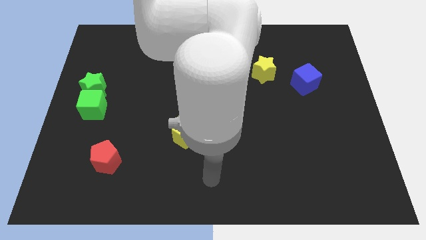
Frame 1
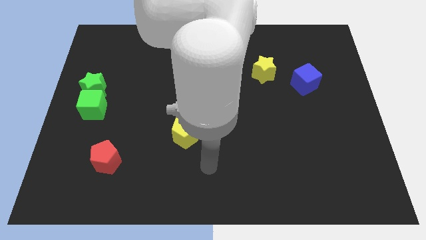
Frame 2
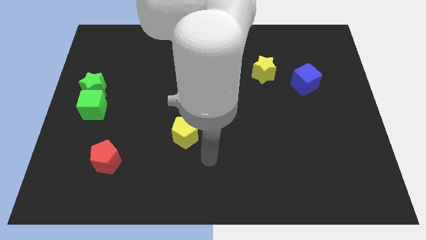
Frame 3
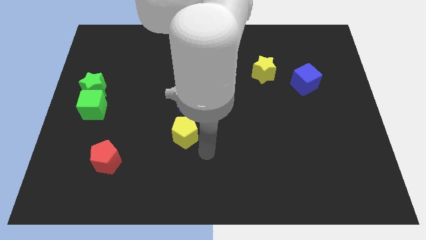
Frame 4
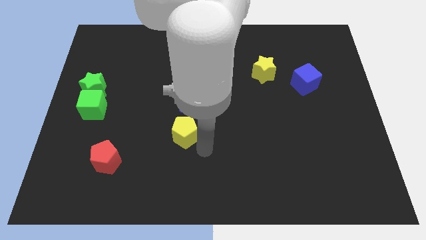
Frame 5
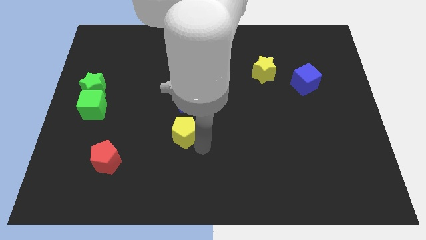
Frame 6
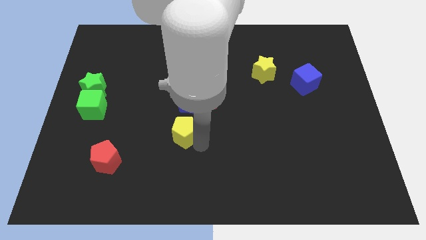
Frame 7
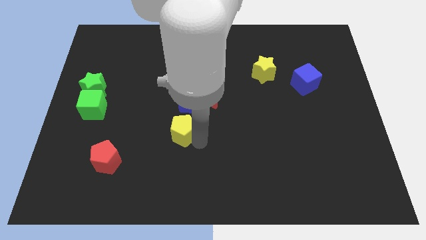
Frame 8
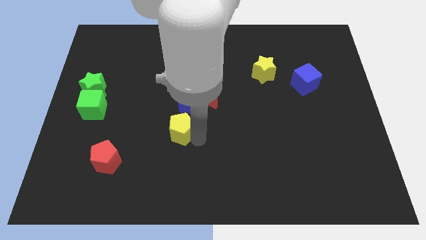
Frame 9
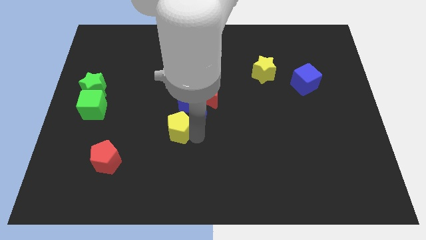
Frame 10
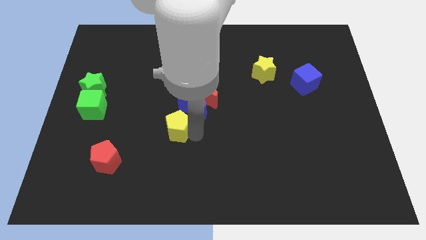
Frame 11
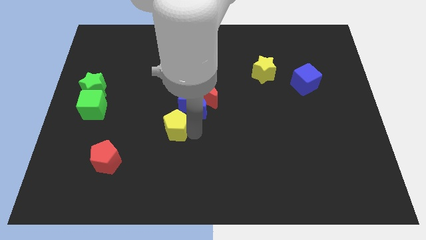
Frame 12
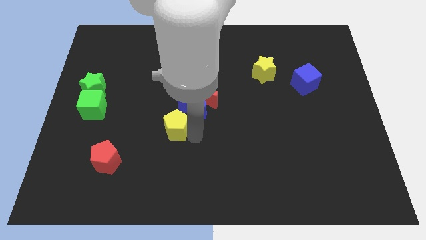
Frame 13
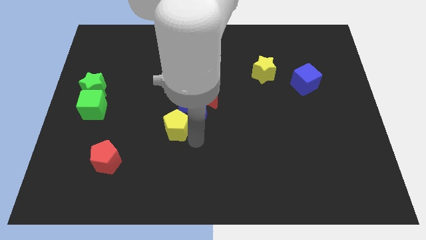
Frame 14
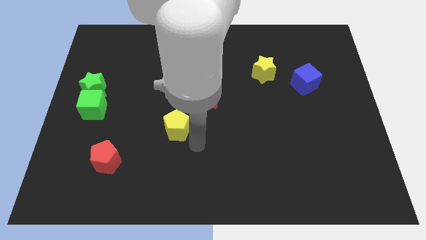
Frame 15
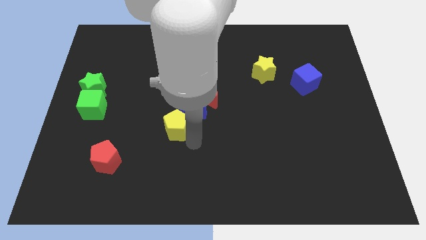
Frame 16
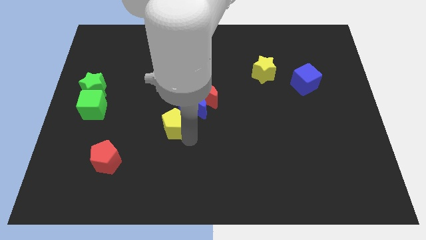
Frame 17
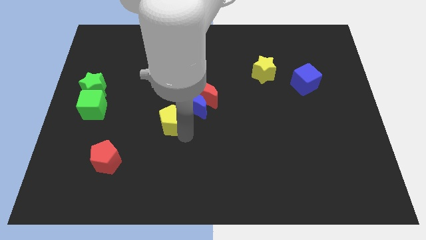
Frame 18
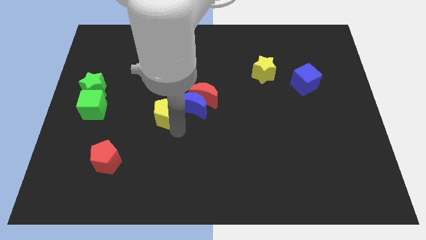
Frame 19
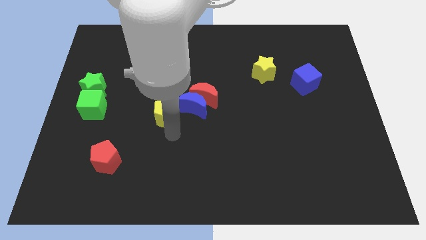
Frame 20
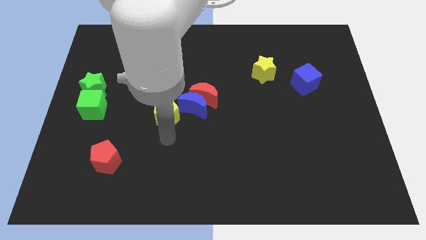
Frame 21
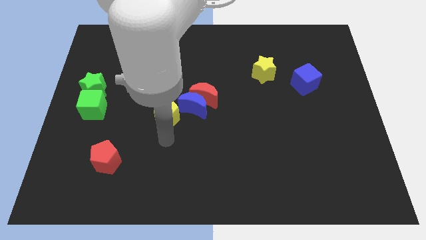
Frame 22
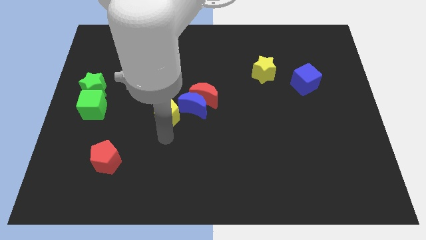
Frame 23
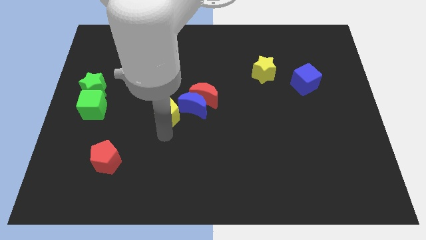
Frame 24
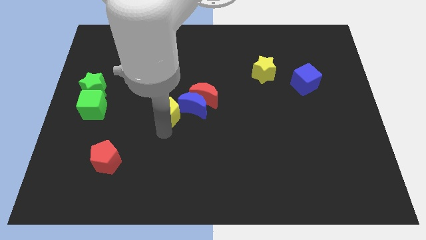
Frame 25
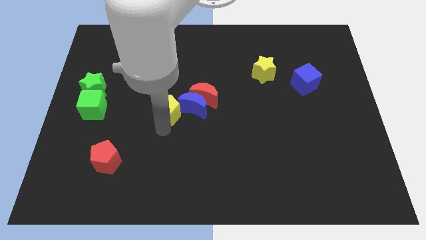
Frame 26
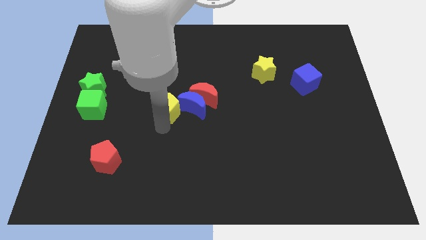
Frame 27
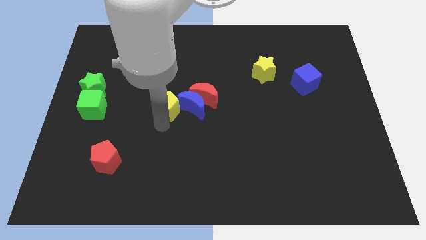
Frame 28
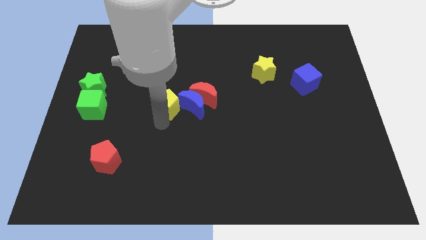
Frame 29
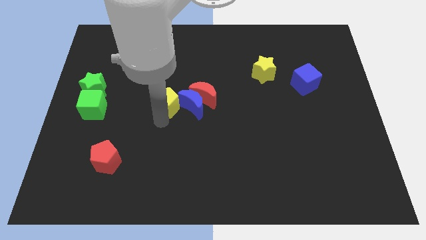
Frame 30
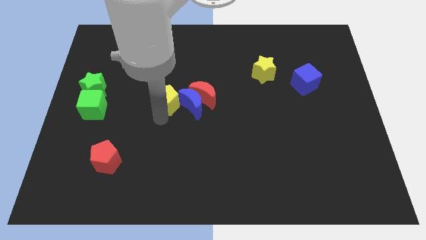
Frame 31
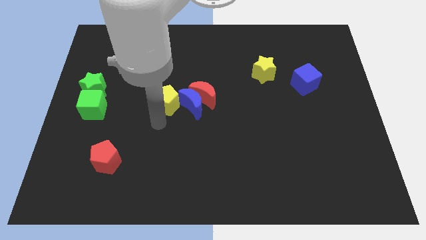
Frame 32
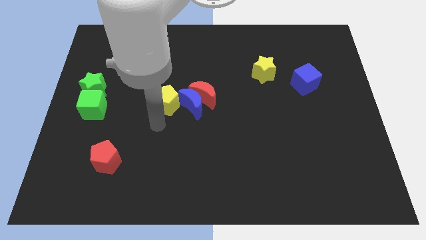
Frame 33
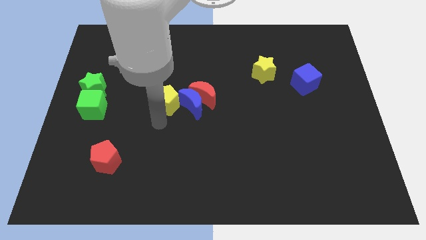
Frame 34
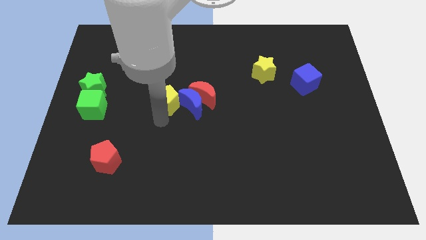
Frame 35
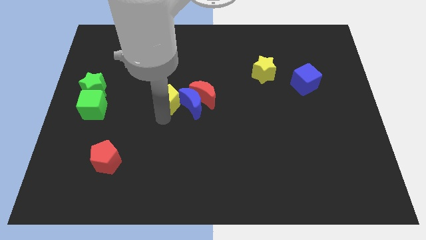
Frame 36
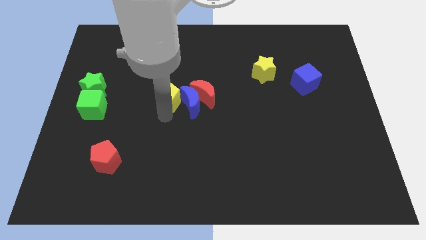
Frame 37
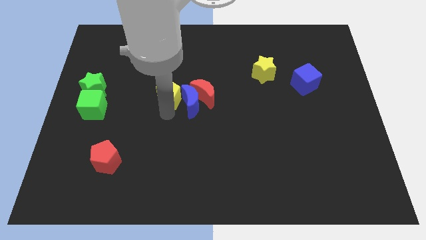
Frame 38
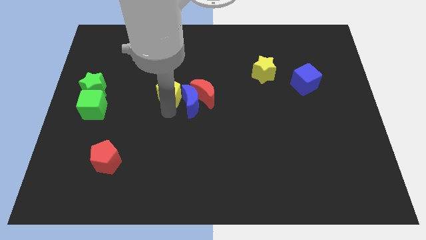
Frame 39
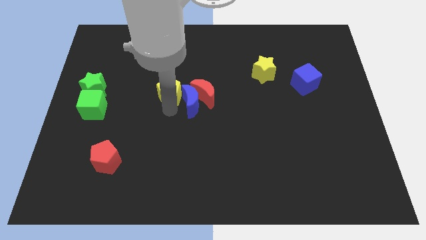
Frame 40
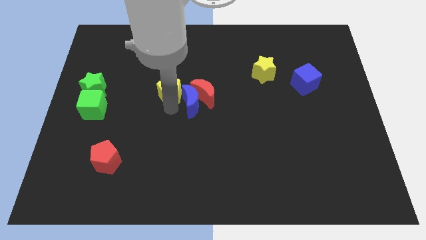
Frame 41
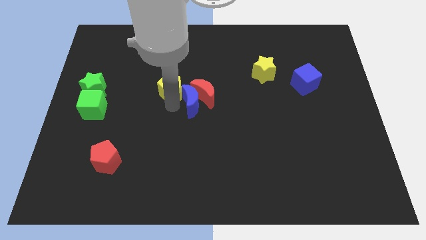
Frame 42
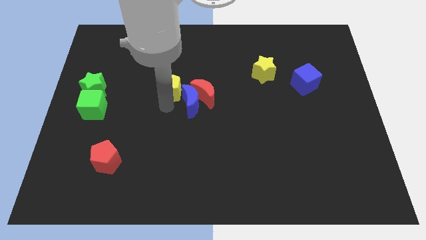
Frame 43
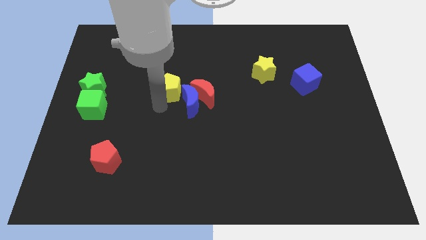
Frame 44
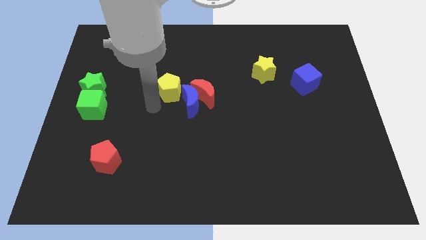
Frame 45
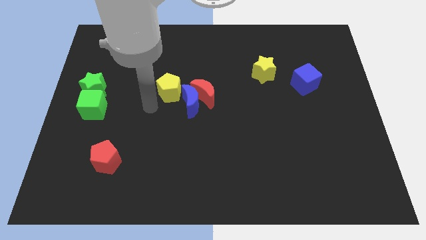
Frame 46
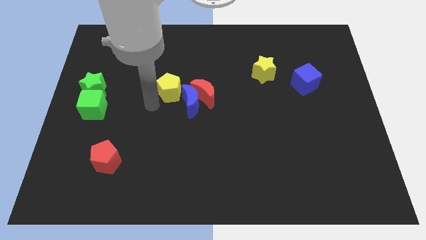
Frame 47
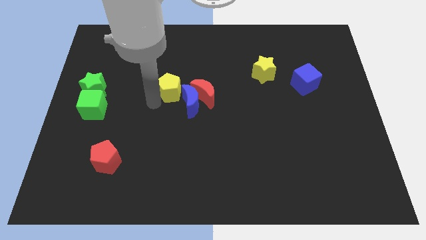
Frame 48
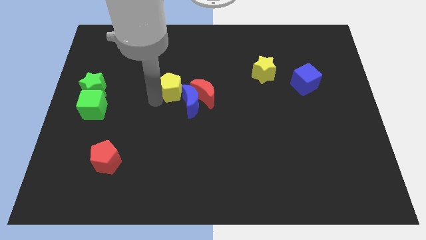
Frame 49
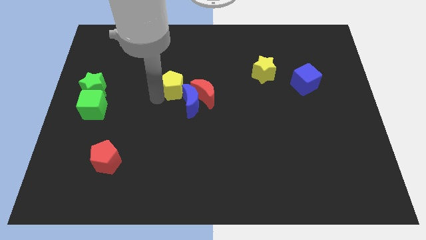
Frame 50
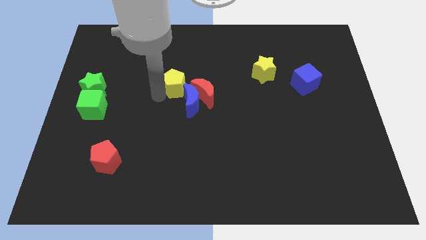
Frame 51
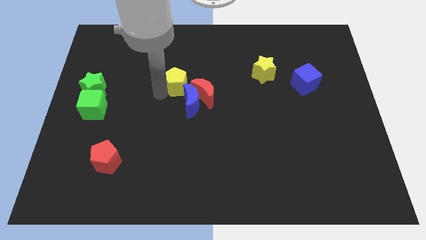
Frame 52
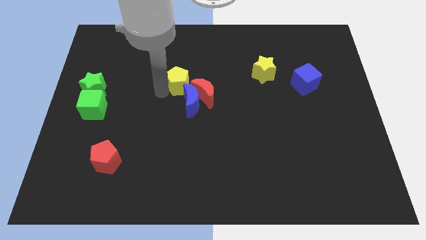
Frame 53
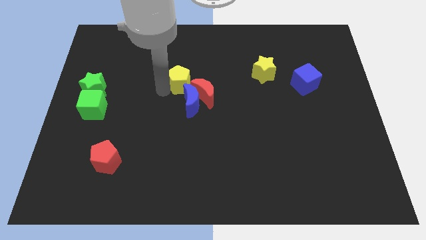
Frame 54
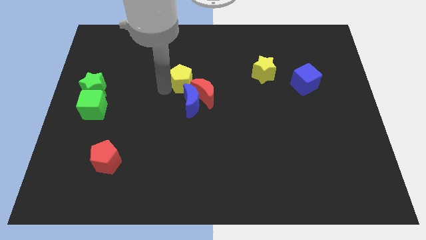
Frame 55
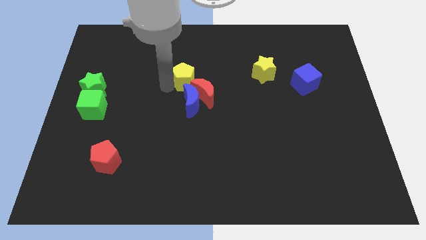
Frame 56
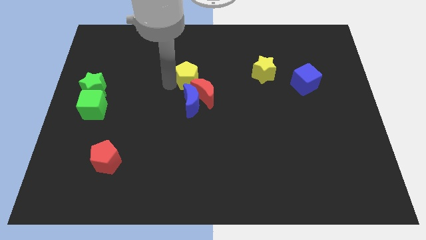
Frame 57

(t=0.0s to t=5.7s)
slide the yellow pentagon above the red moon

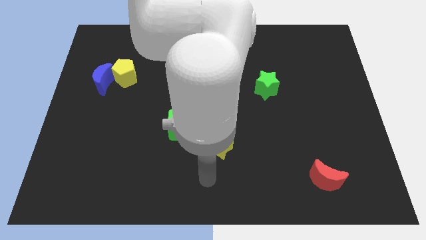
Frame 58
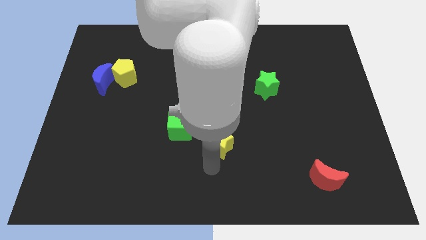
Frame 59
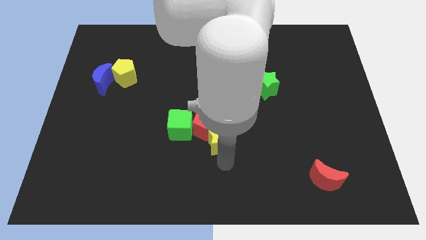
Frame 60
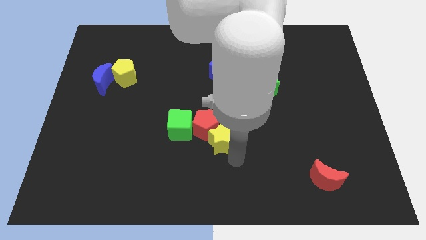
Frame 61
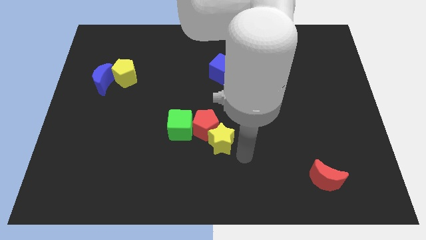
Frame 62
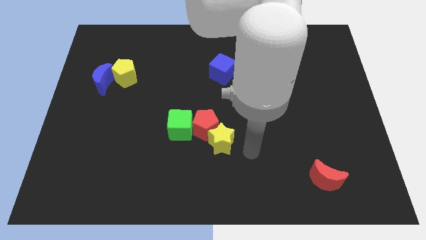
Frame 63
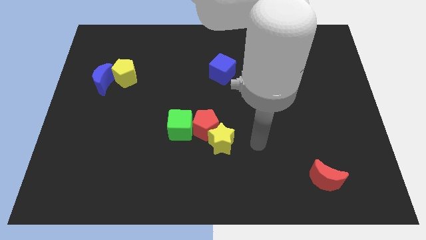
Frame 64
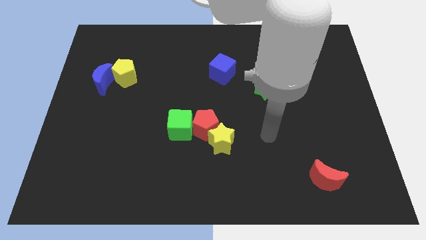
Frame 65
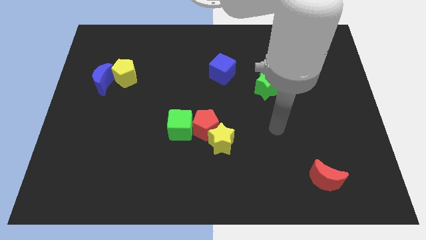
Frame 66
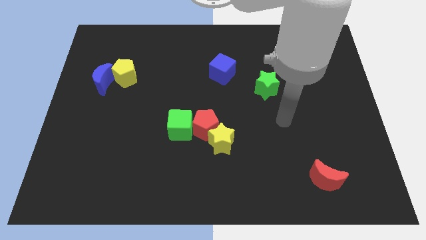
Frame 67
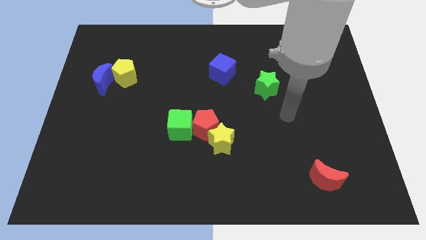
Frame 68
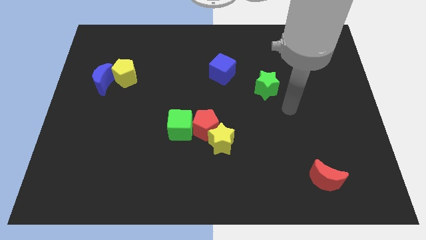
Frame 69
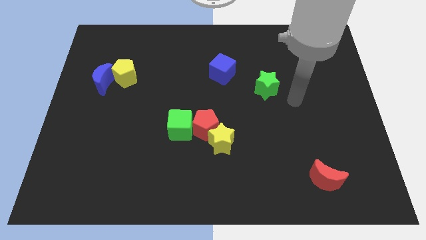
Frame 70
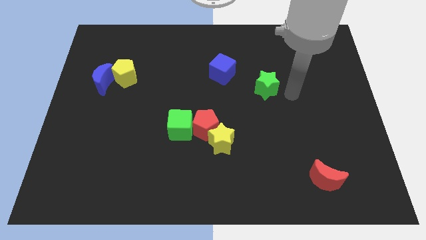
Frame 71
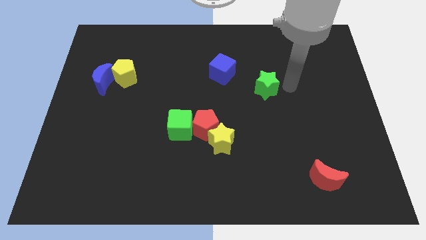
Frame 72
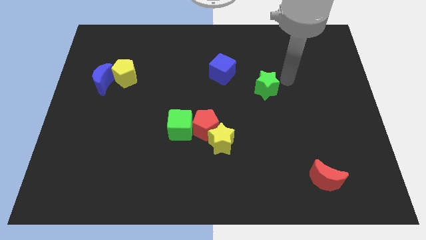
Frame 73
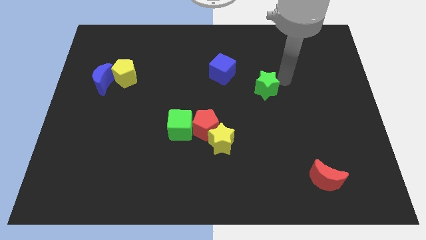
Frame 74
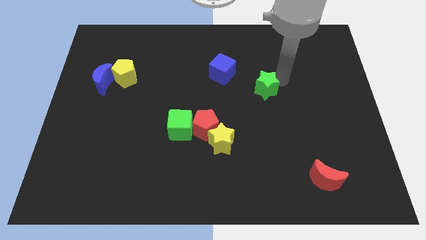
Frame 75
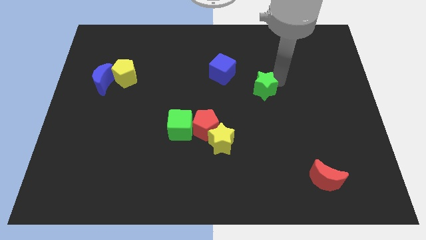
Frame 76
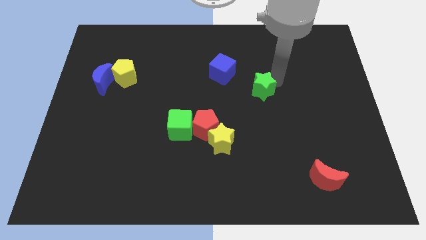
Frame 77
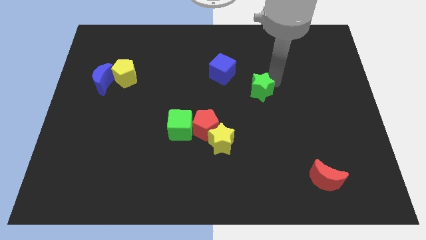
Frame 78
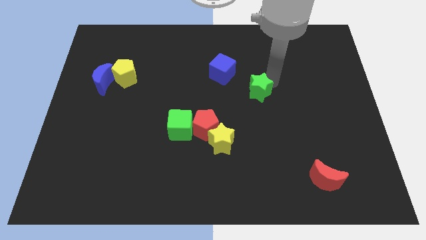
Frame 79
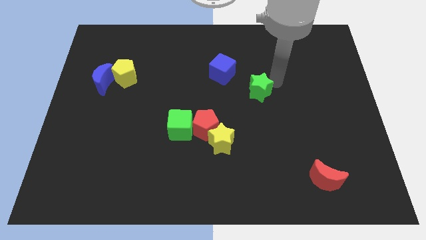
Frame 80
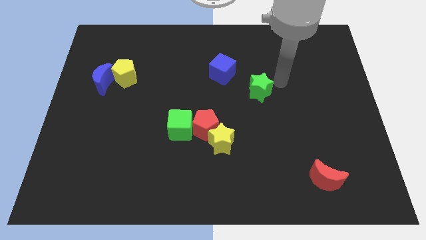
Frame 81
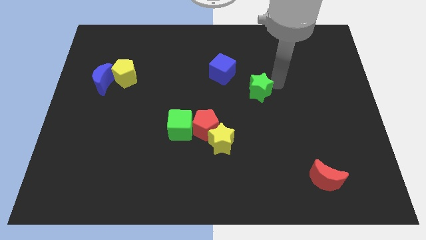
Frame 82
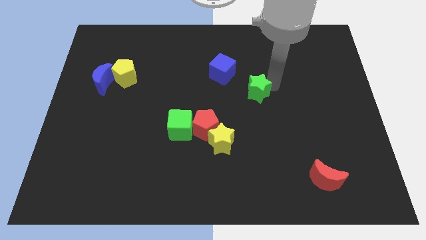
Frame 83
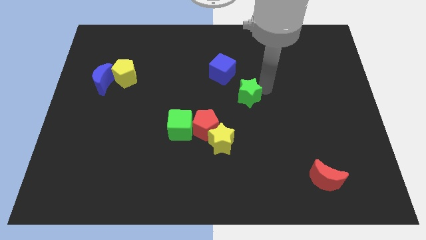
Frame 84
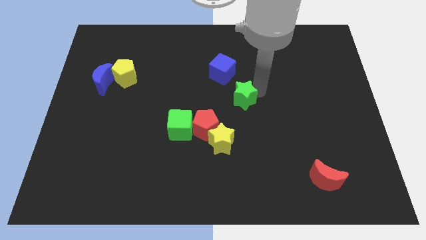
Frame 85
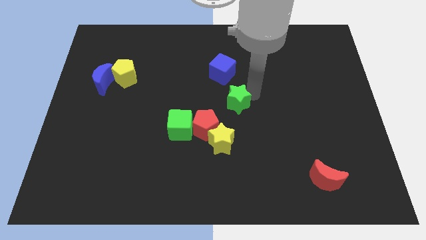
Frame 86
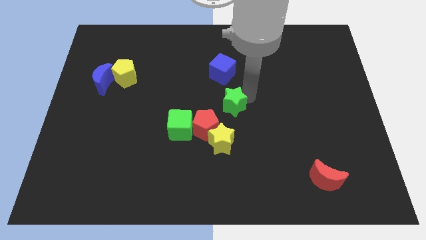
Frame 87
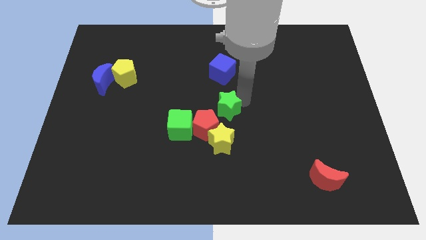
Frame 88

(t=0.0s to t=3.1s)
push the green star diagonally up and to the right of the green cube
